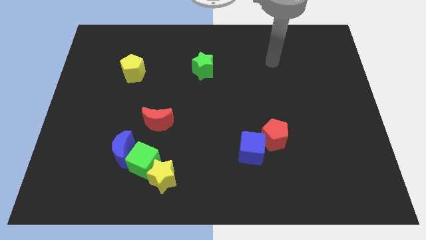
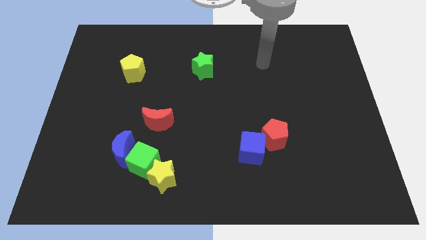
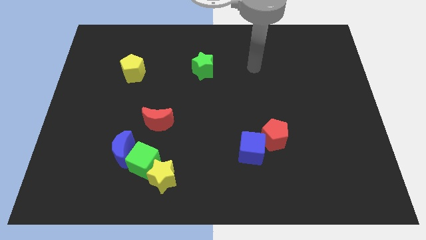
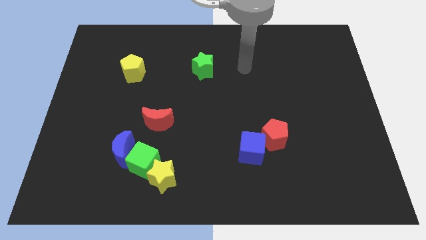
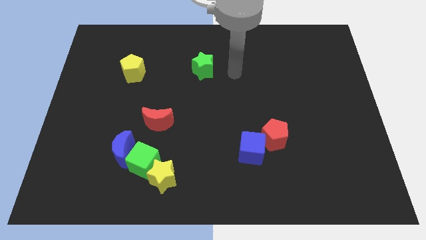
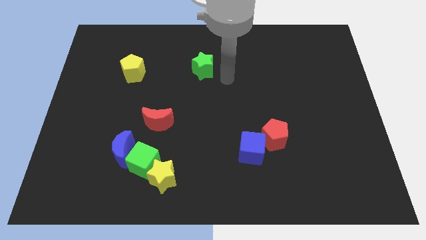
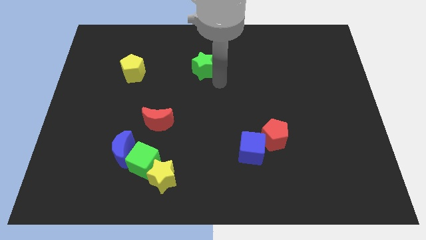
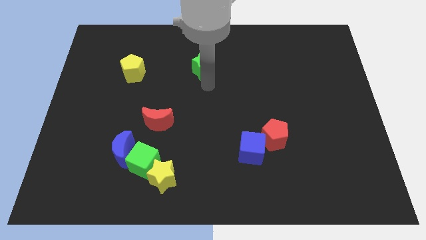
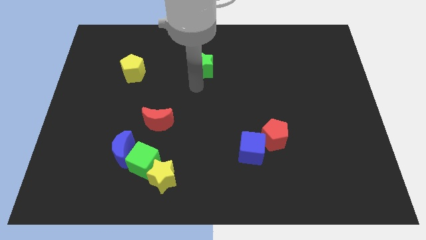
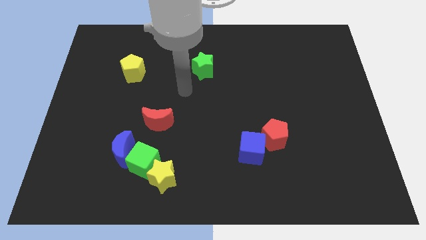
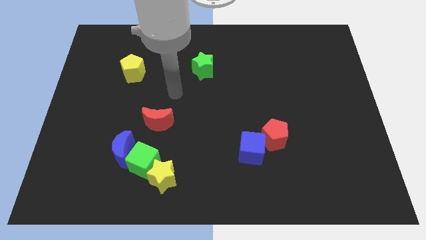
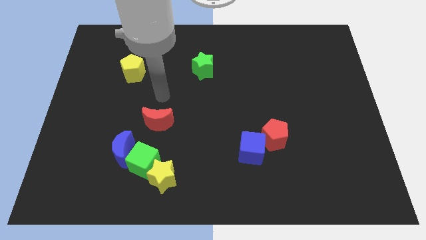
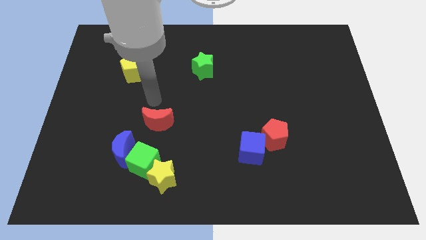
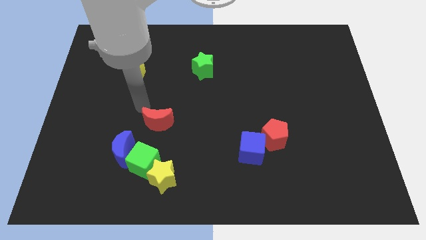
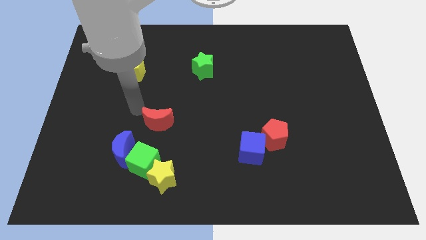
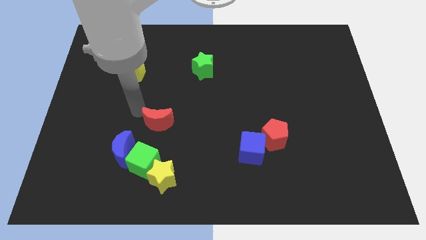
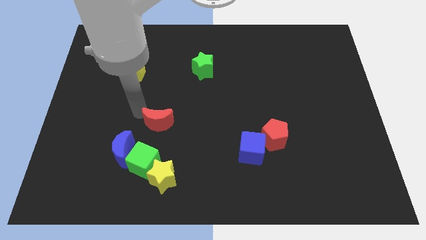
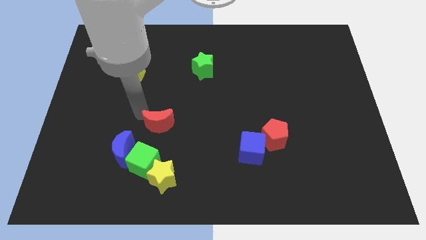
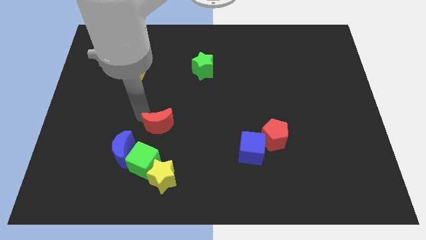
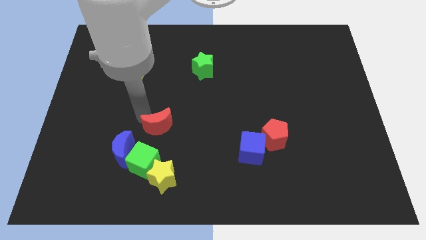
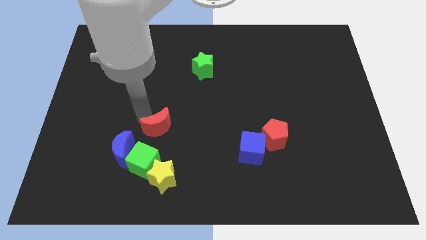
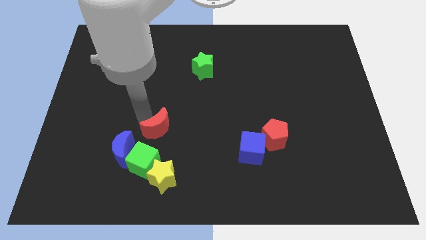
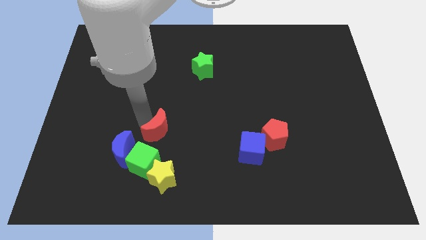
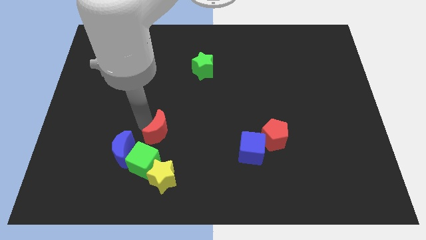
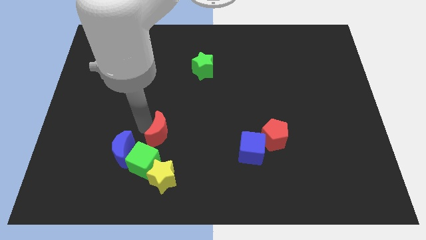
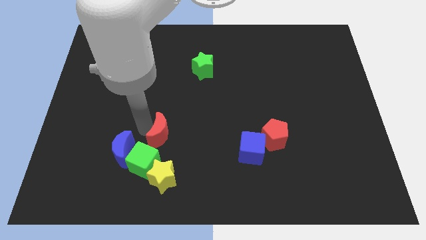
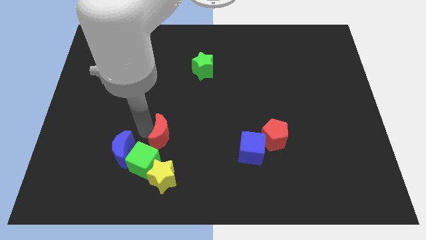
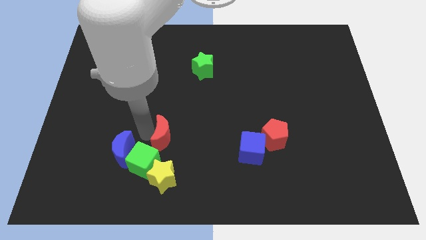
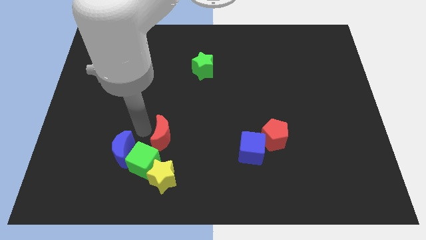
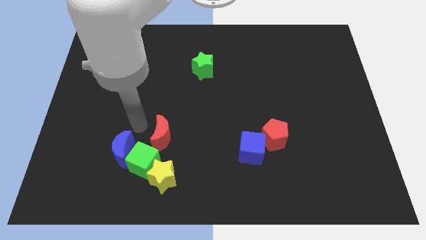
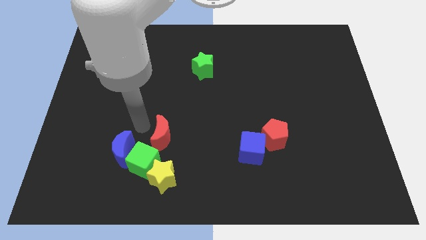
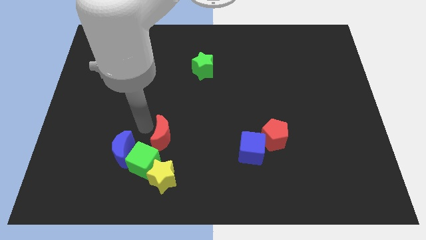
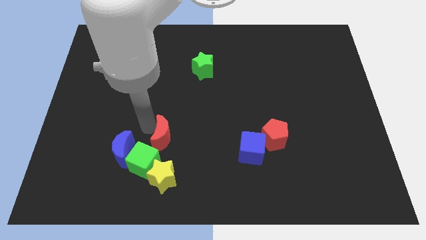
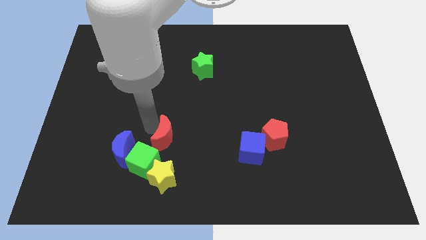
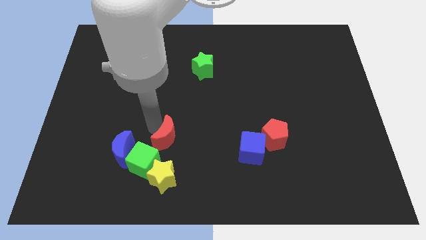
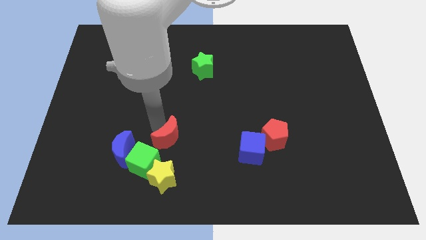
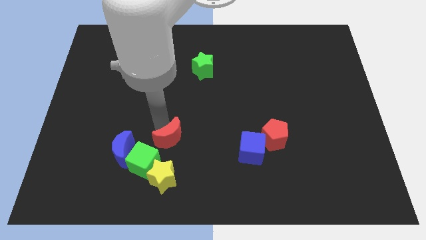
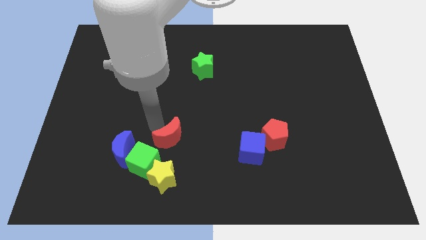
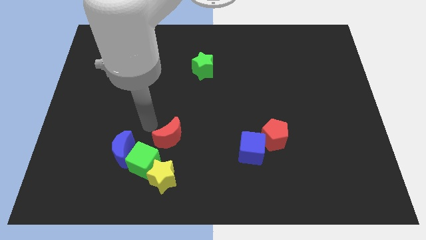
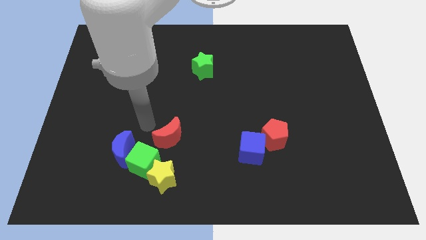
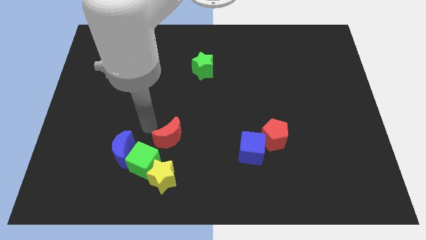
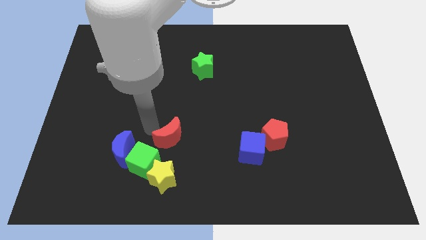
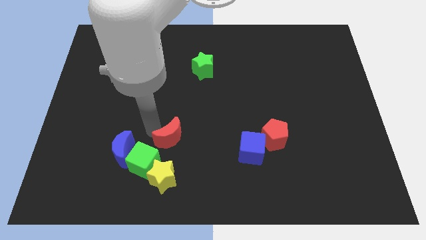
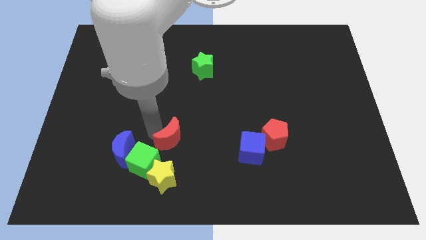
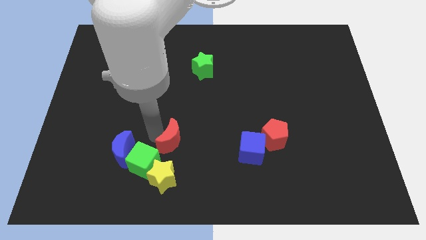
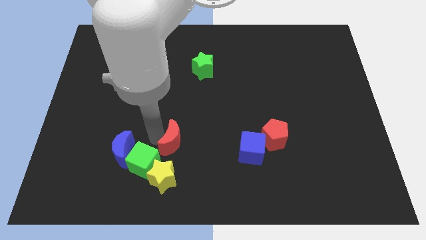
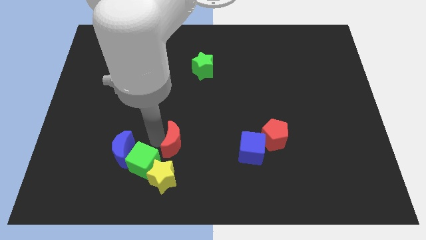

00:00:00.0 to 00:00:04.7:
slide the red moon diagonally down and to the right a bit

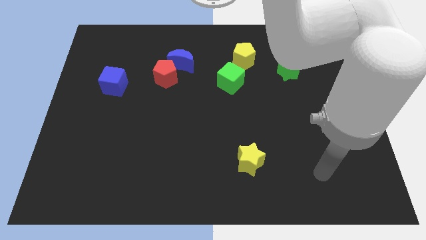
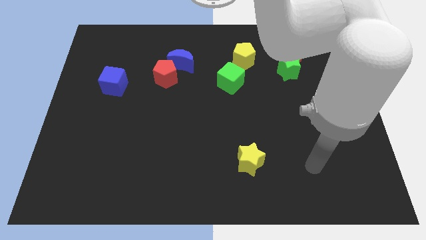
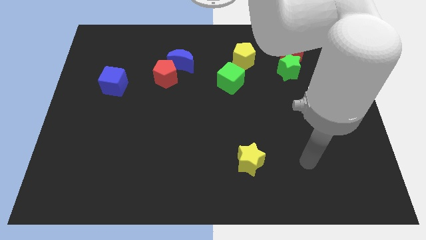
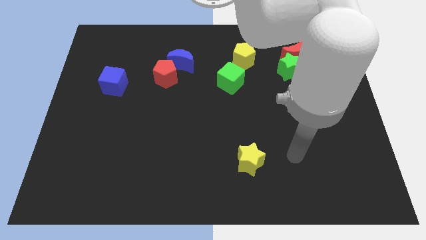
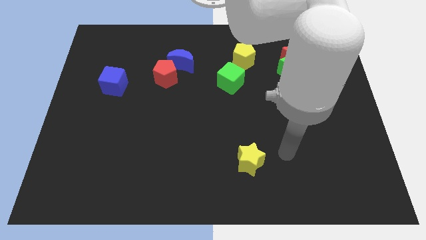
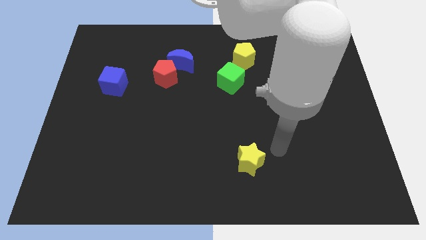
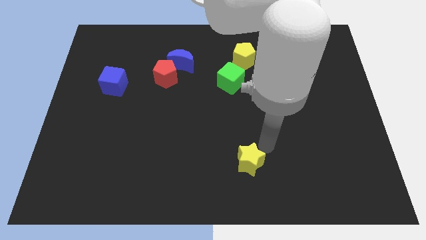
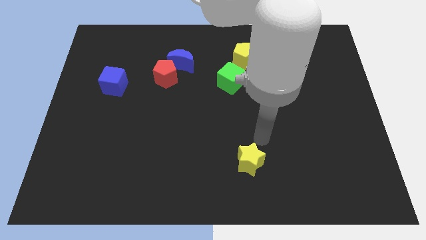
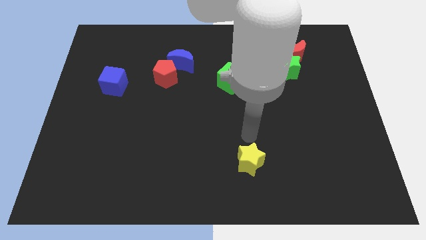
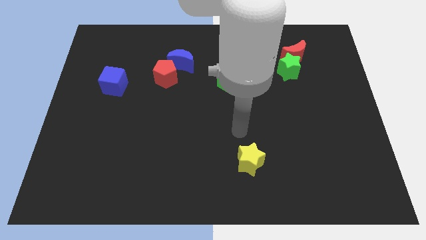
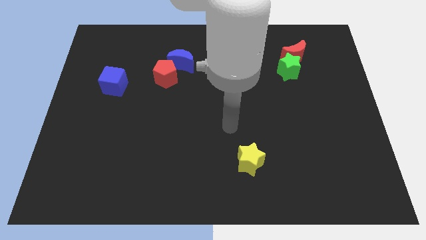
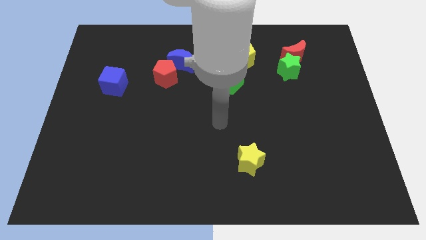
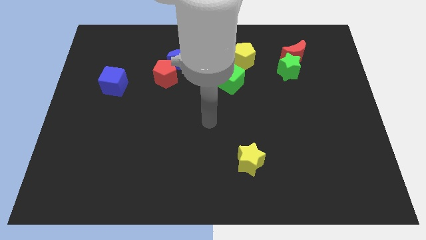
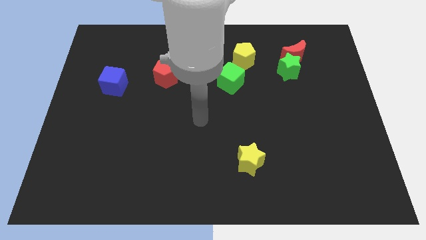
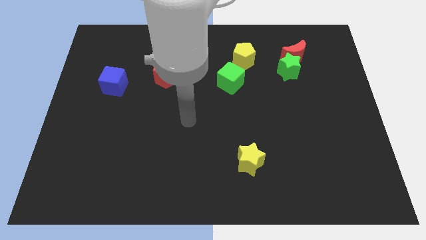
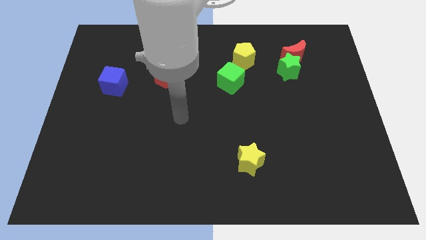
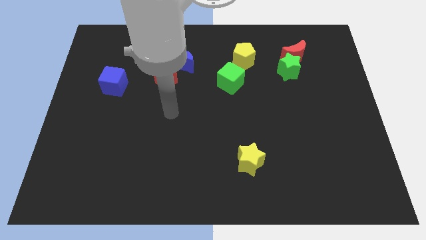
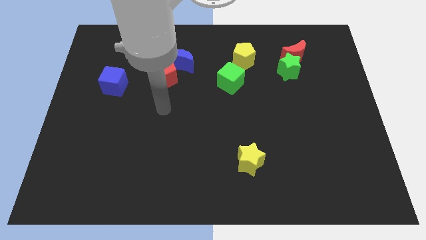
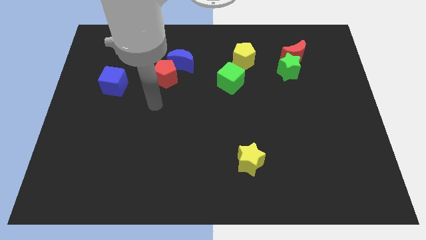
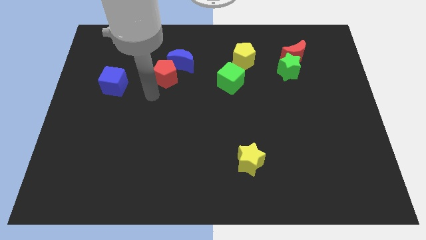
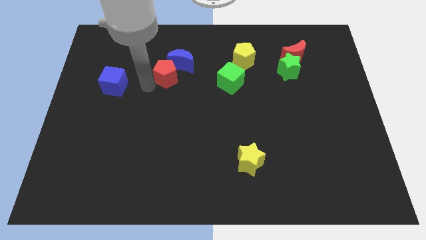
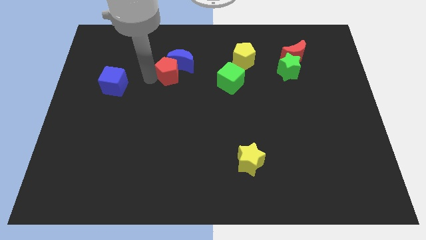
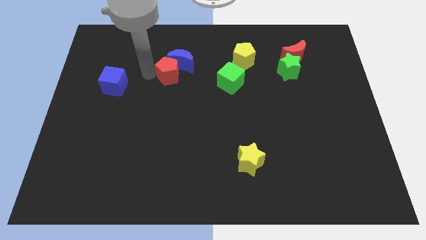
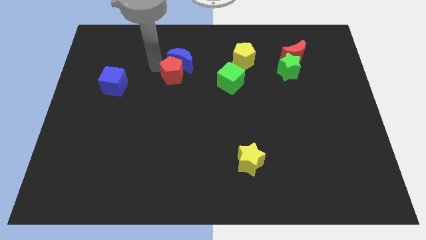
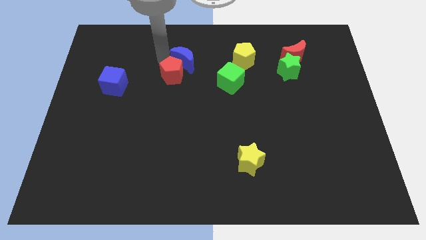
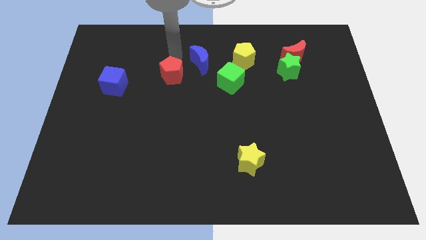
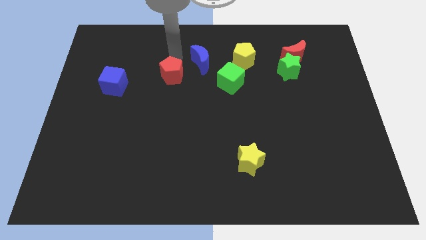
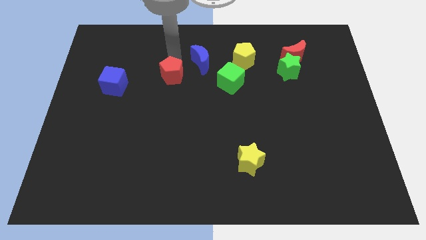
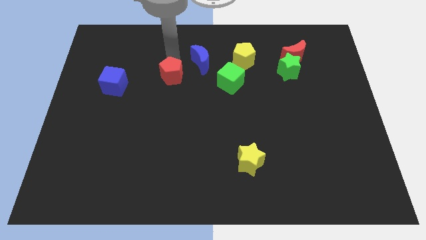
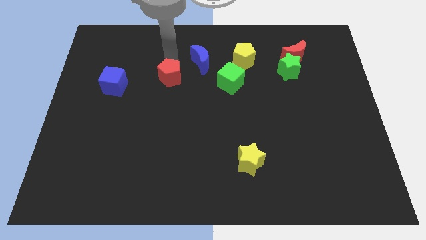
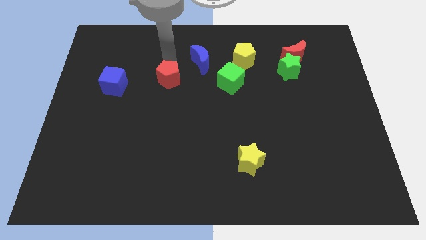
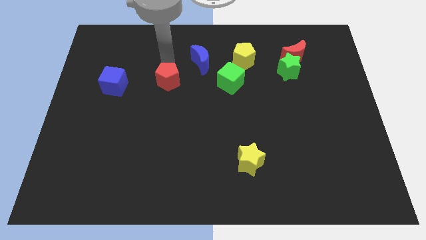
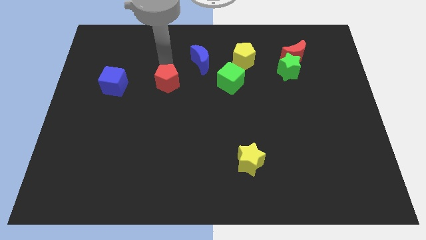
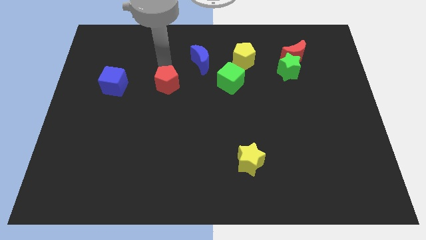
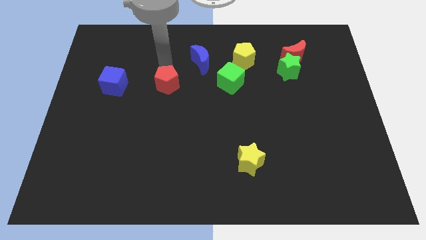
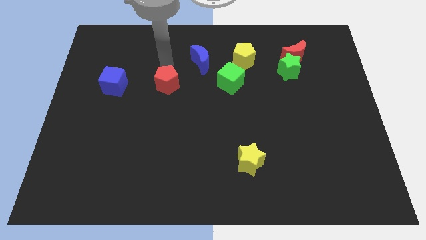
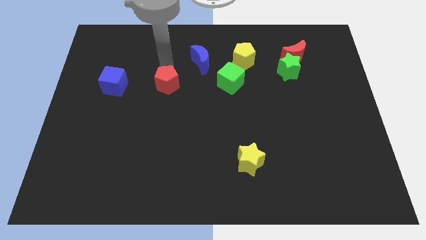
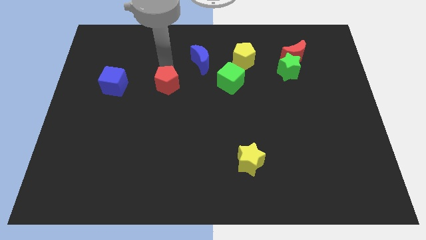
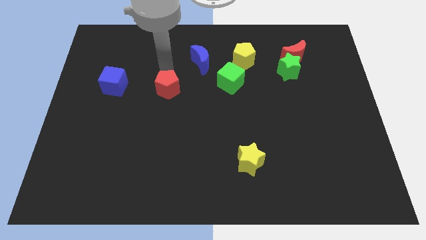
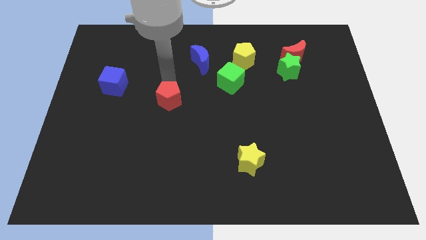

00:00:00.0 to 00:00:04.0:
slightly slide the red pentagon down
